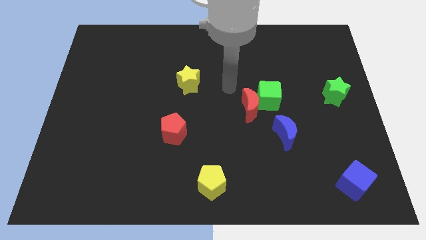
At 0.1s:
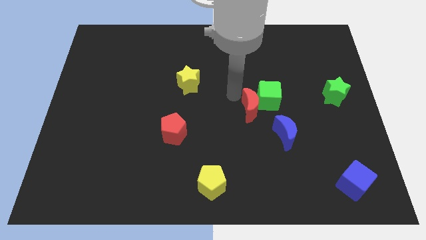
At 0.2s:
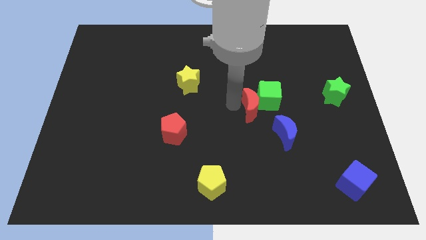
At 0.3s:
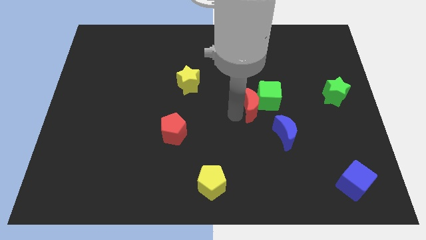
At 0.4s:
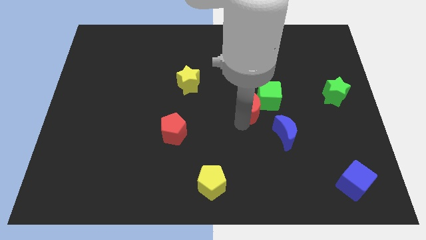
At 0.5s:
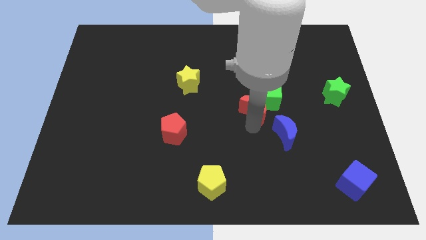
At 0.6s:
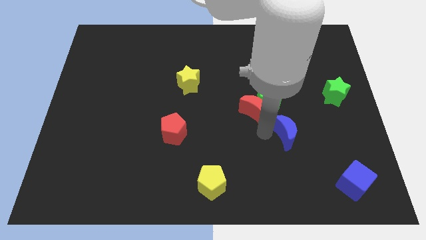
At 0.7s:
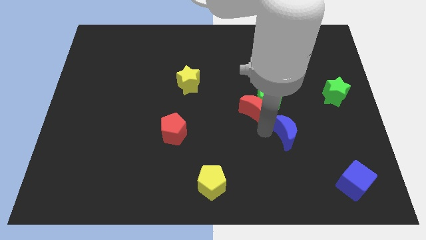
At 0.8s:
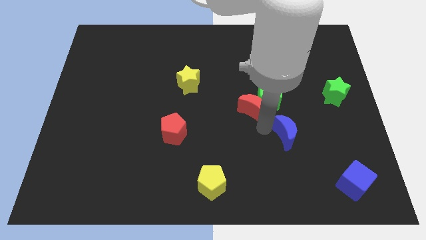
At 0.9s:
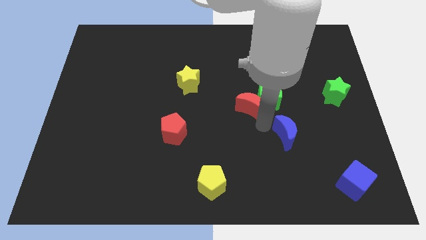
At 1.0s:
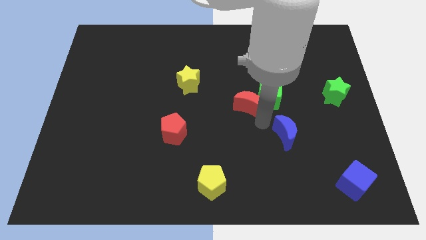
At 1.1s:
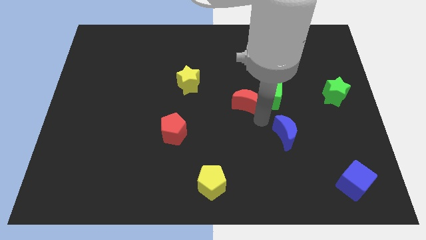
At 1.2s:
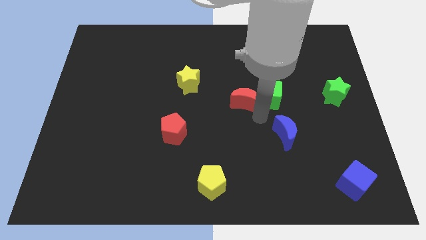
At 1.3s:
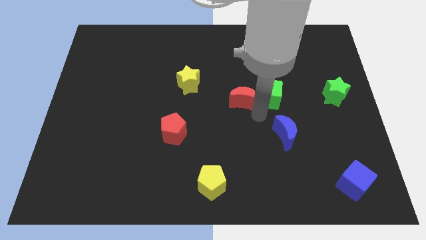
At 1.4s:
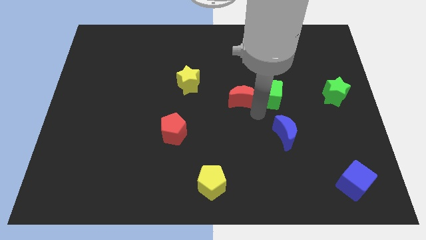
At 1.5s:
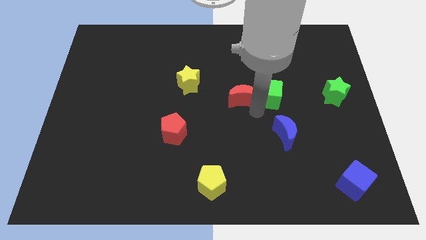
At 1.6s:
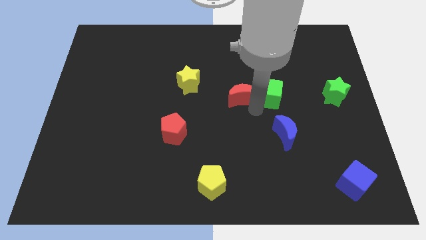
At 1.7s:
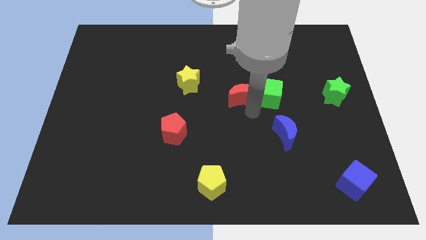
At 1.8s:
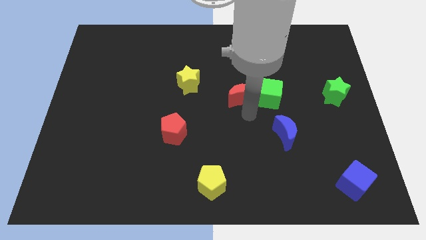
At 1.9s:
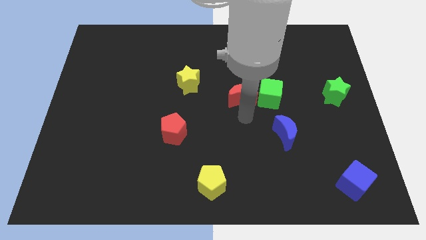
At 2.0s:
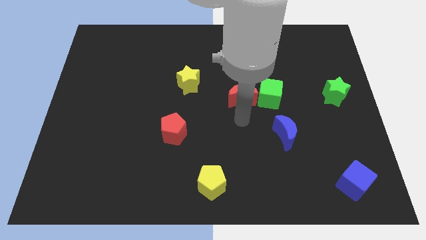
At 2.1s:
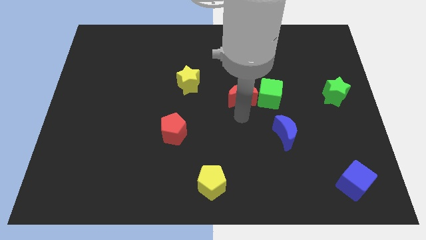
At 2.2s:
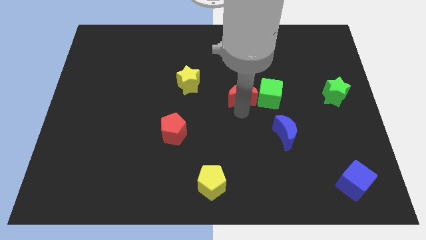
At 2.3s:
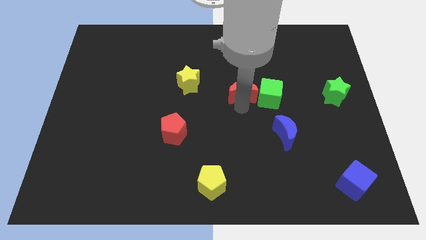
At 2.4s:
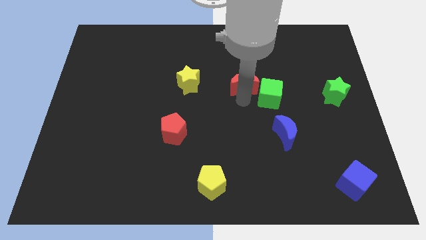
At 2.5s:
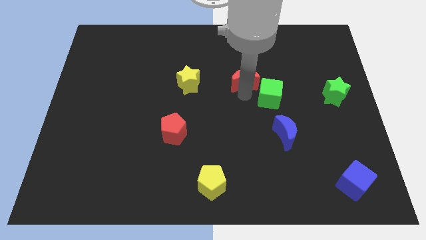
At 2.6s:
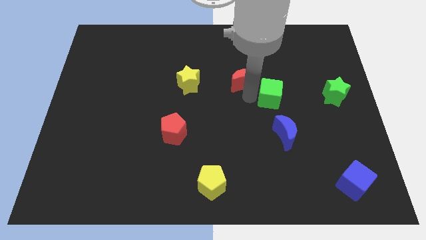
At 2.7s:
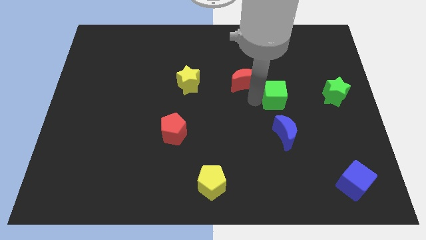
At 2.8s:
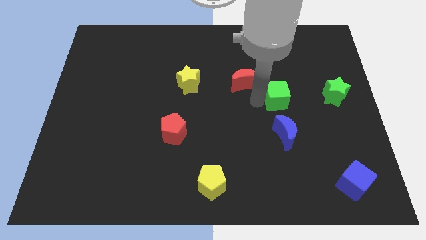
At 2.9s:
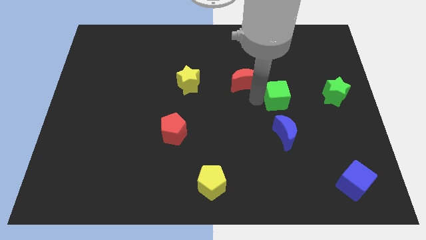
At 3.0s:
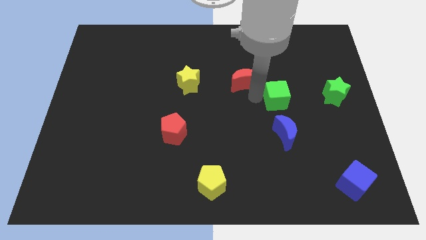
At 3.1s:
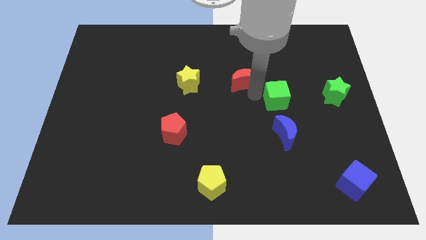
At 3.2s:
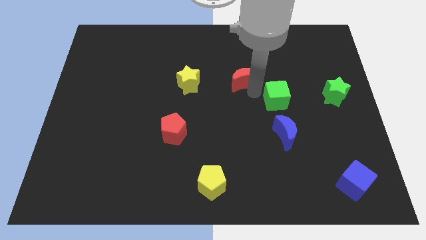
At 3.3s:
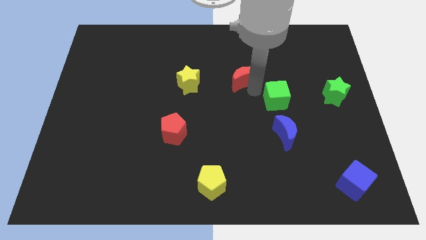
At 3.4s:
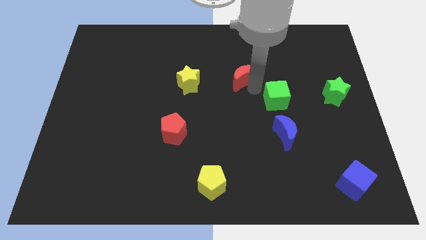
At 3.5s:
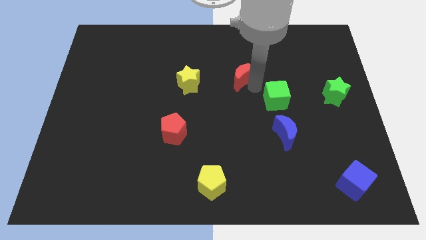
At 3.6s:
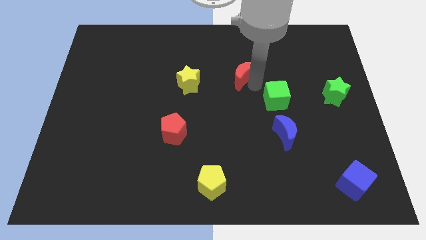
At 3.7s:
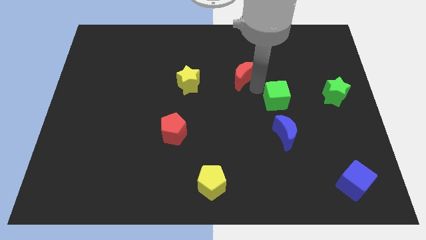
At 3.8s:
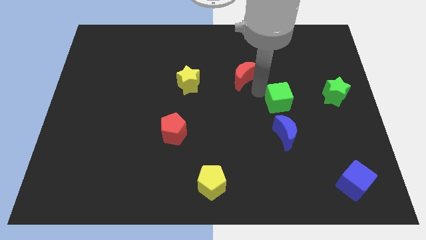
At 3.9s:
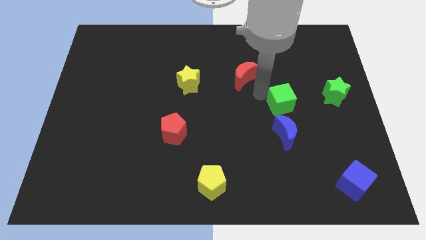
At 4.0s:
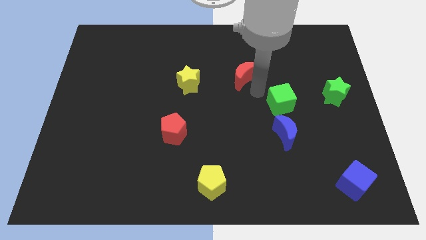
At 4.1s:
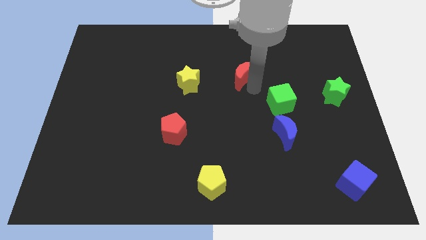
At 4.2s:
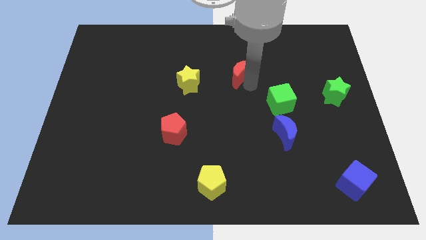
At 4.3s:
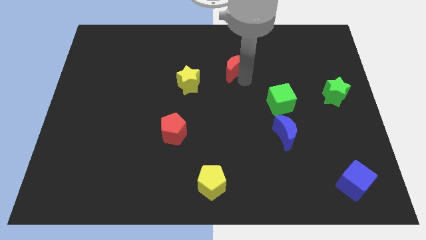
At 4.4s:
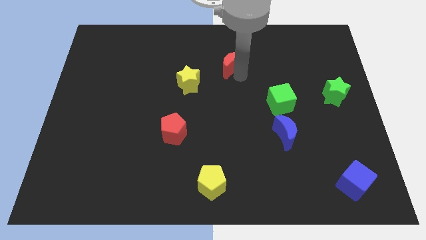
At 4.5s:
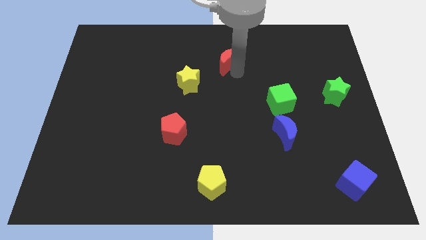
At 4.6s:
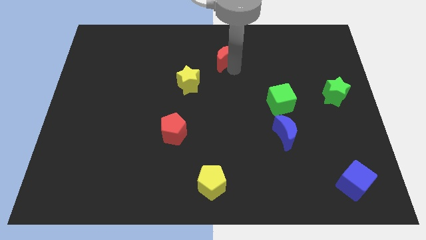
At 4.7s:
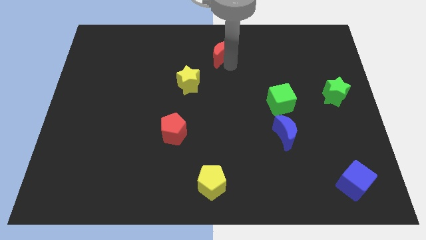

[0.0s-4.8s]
push the red moon to the top side

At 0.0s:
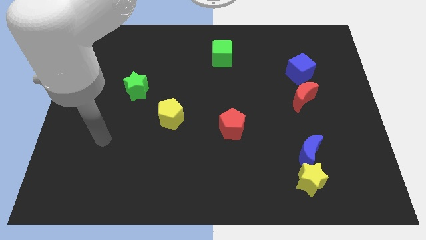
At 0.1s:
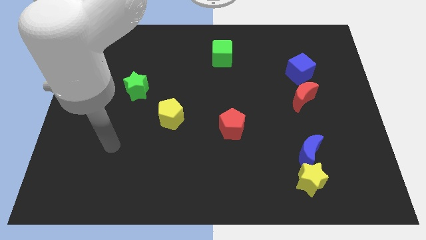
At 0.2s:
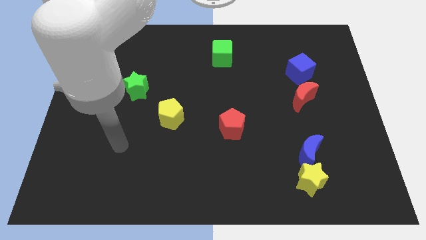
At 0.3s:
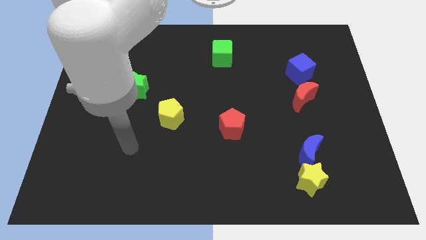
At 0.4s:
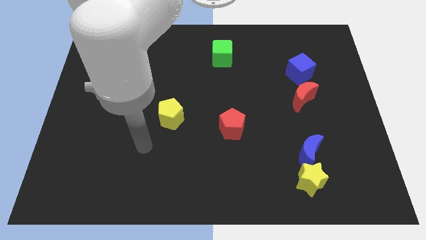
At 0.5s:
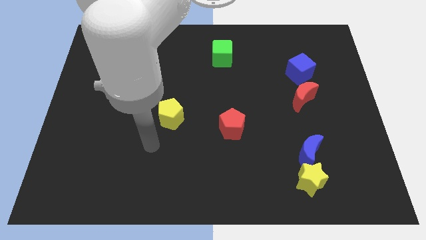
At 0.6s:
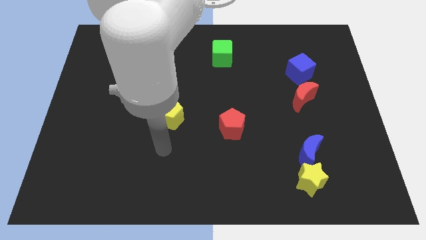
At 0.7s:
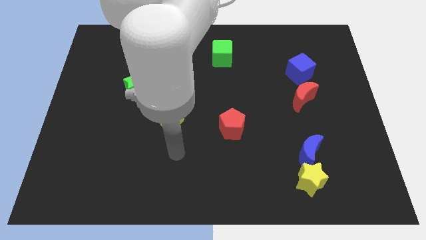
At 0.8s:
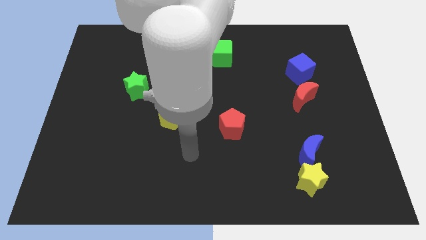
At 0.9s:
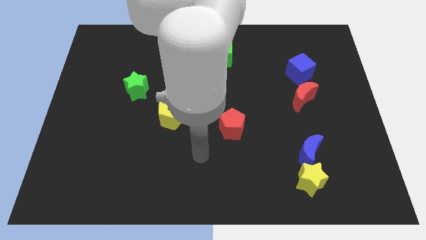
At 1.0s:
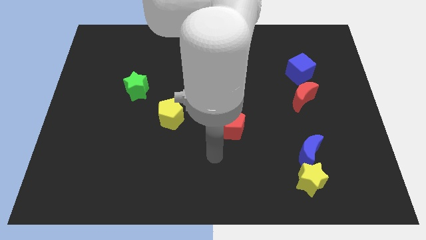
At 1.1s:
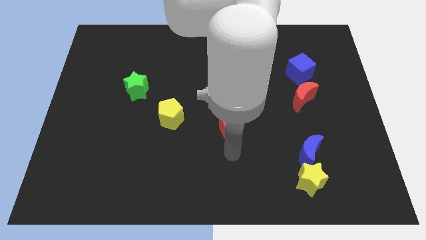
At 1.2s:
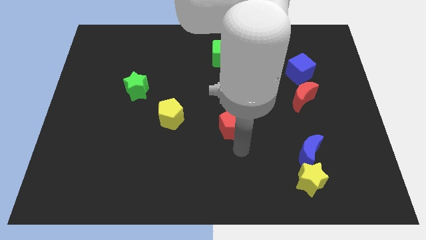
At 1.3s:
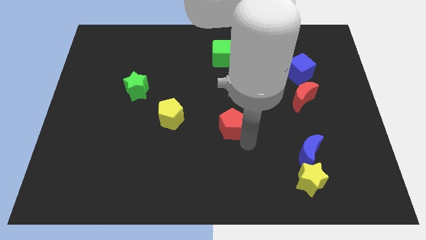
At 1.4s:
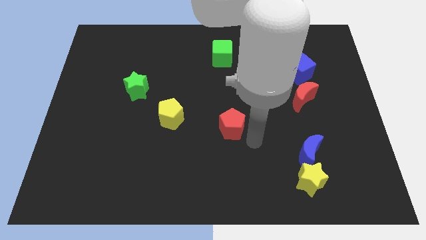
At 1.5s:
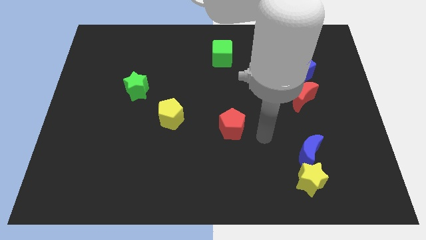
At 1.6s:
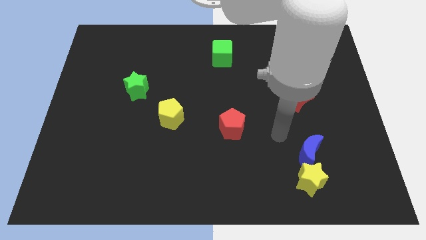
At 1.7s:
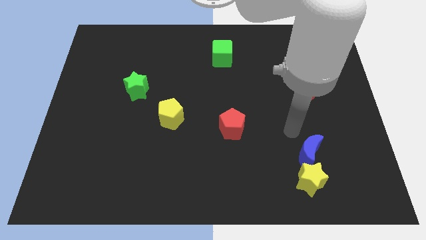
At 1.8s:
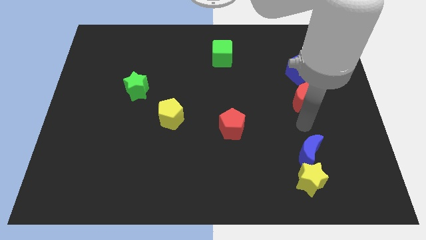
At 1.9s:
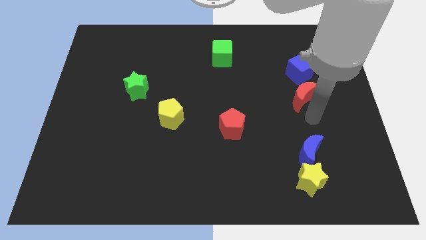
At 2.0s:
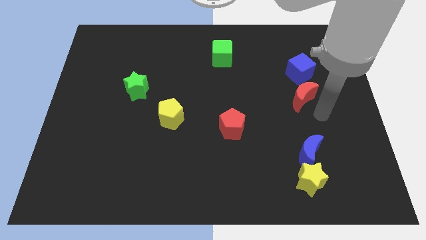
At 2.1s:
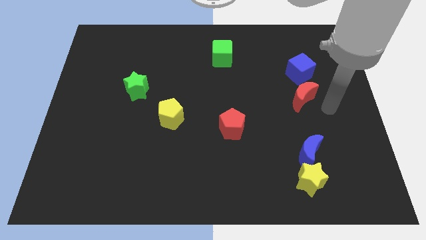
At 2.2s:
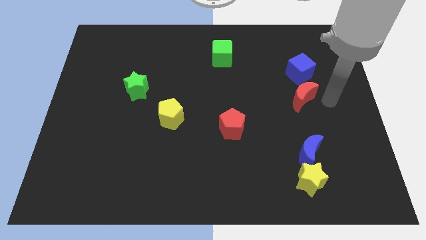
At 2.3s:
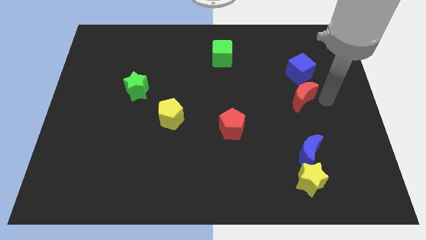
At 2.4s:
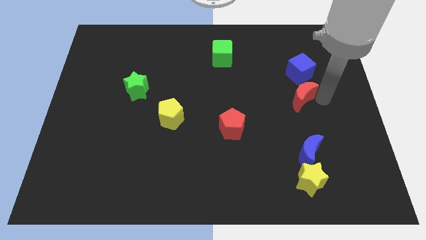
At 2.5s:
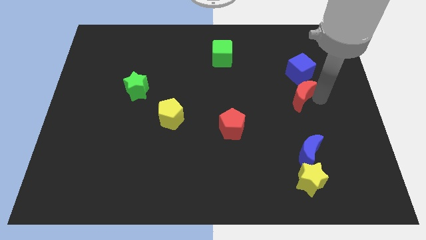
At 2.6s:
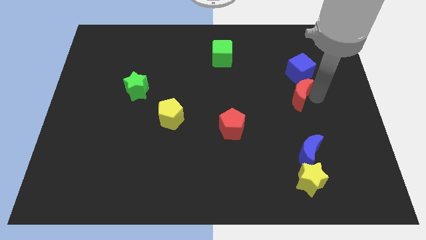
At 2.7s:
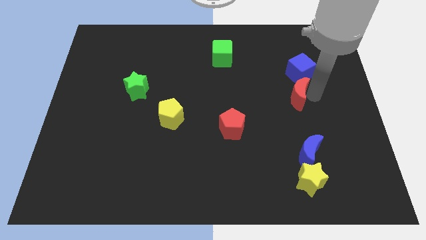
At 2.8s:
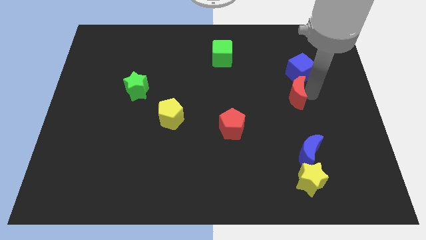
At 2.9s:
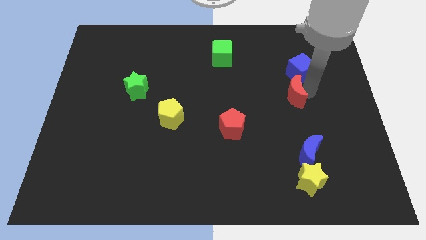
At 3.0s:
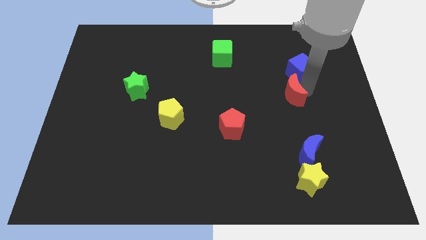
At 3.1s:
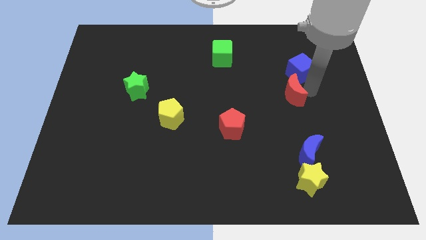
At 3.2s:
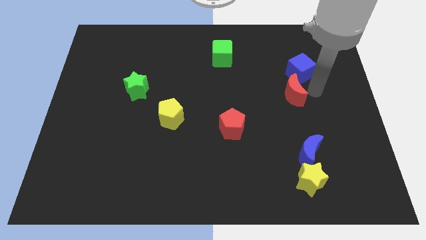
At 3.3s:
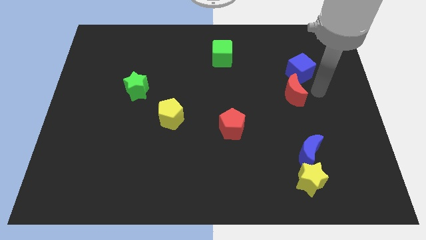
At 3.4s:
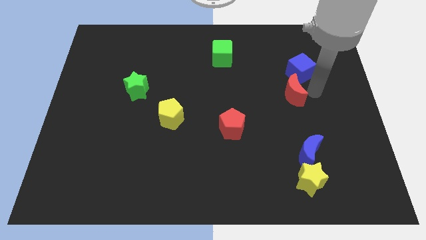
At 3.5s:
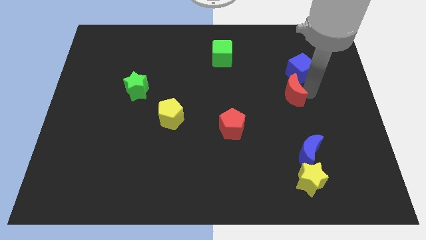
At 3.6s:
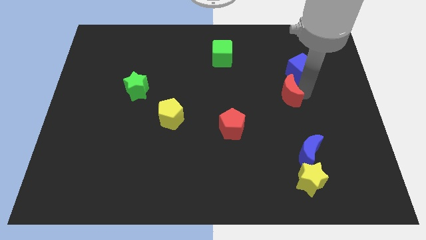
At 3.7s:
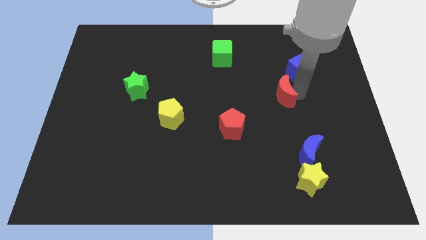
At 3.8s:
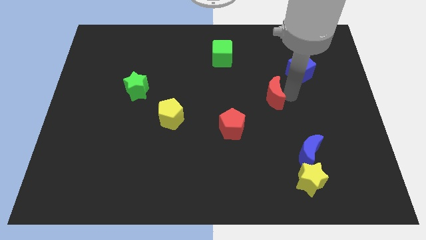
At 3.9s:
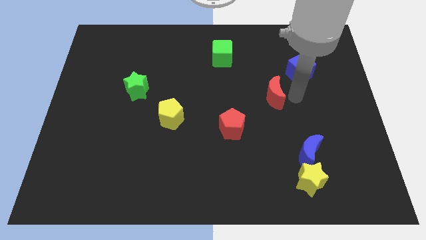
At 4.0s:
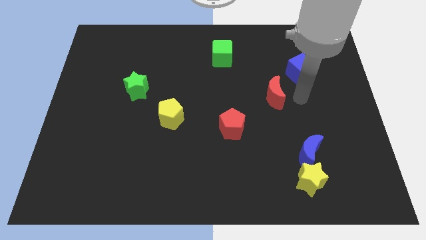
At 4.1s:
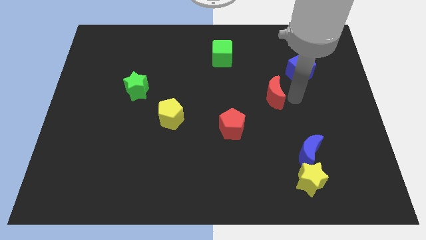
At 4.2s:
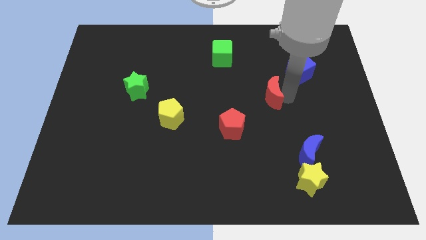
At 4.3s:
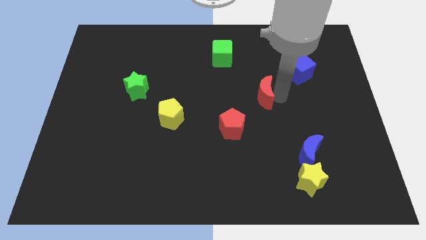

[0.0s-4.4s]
push the red moon to the center
